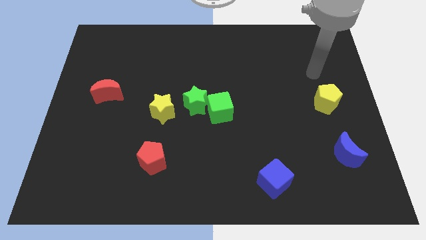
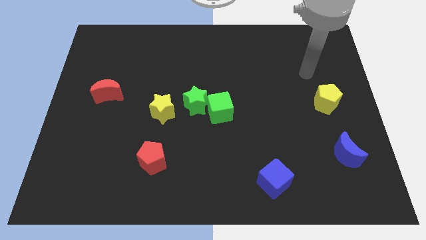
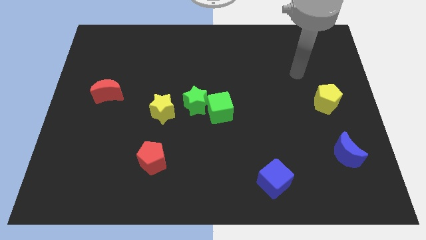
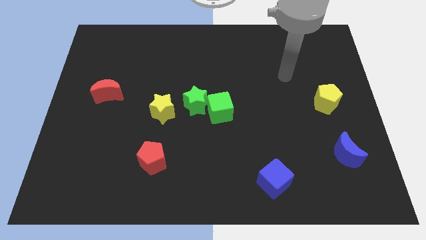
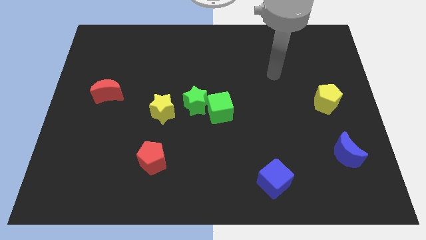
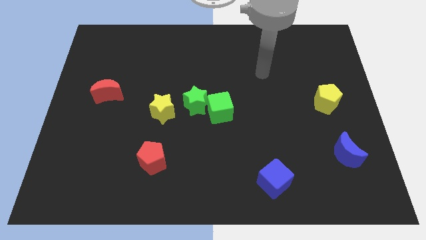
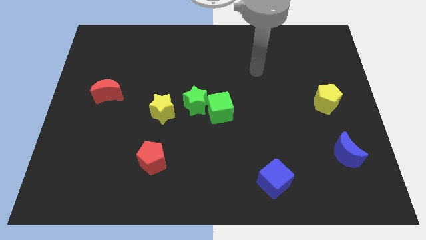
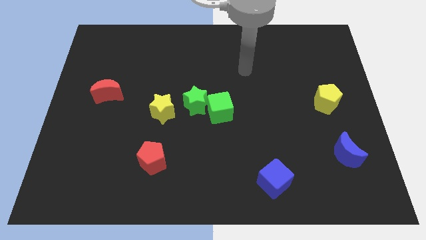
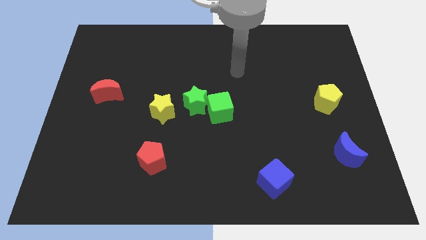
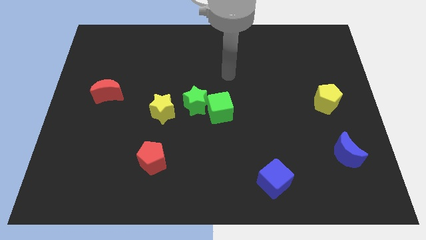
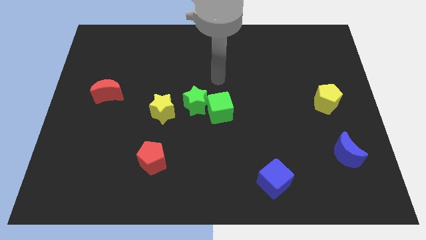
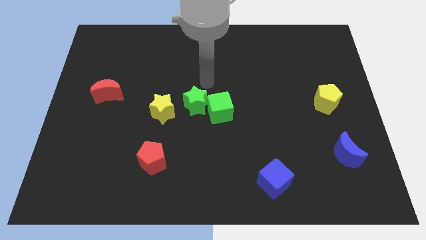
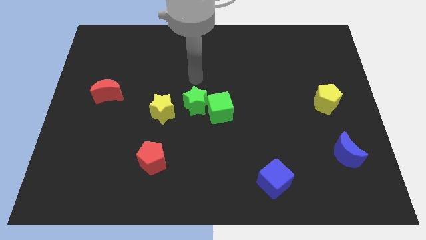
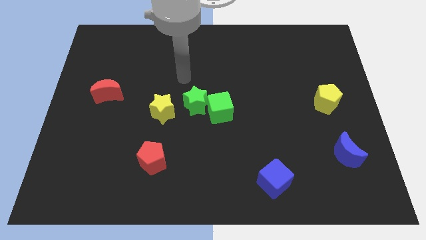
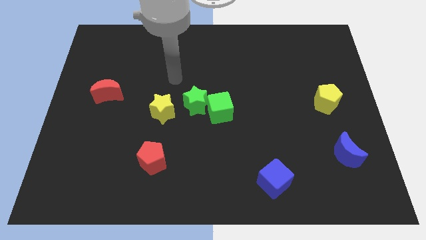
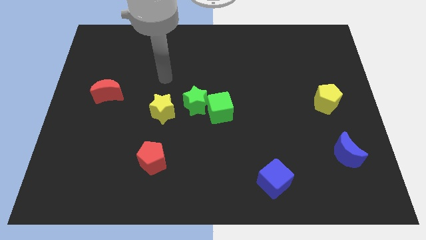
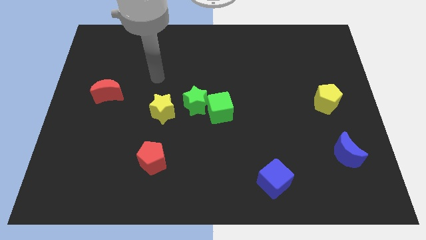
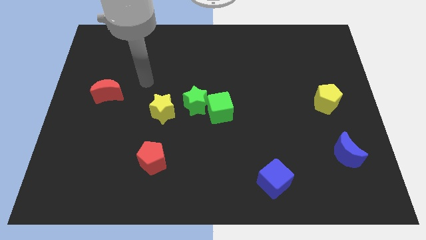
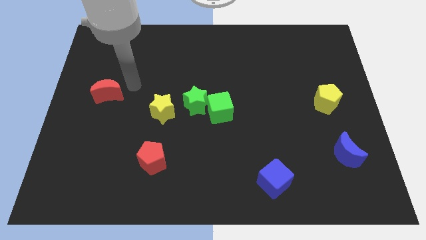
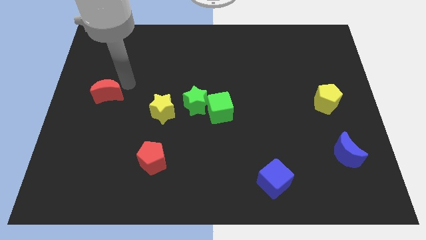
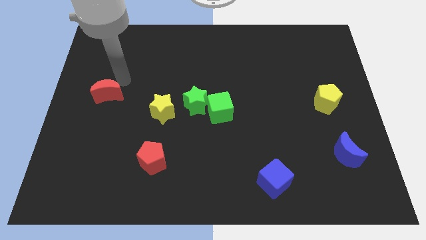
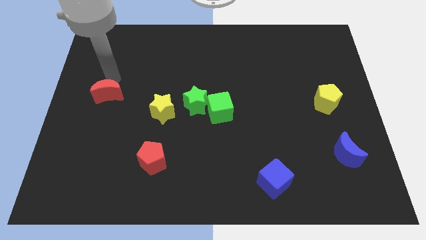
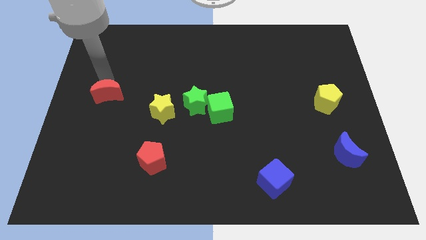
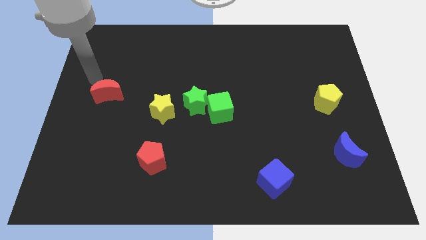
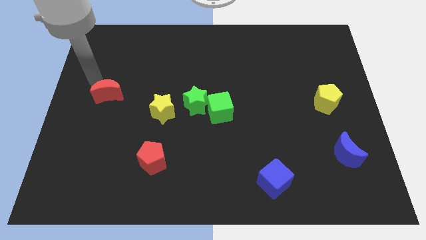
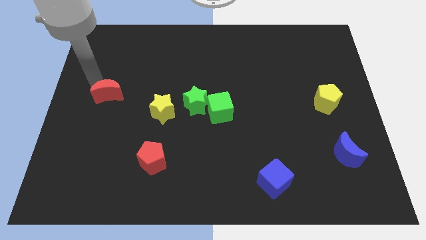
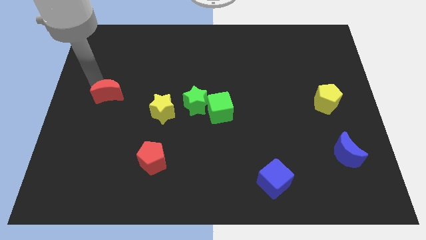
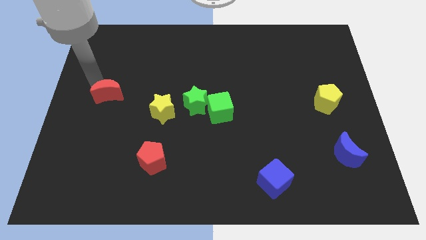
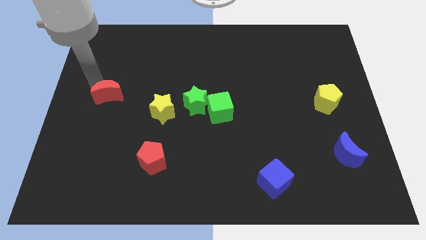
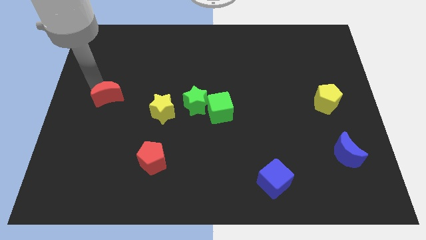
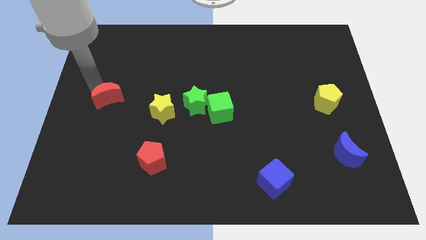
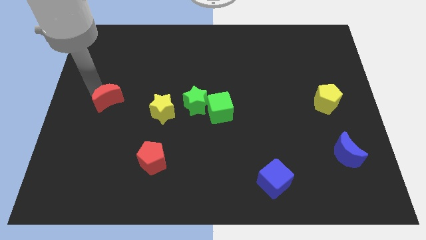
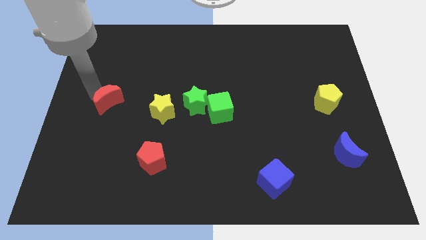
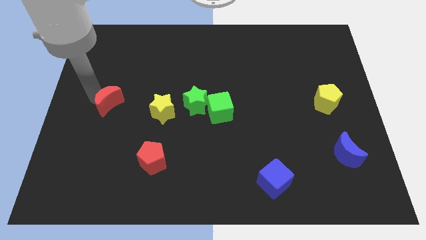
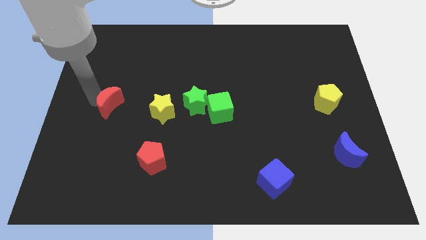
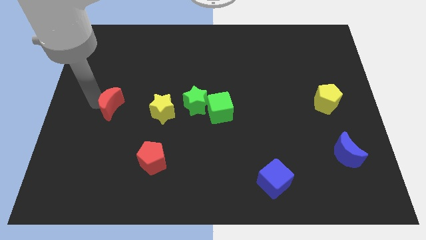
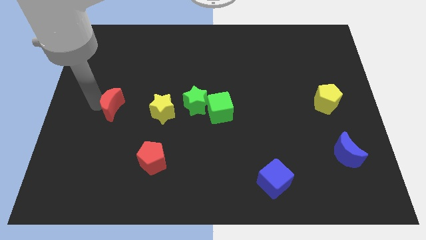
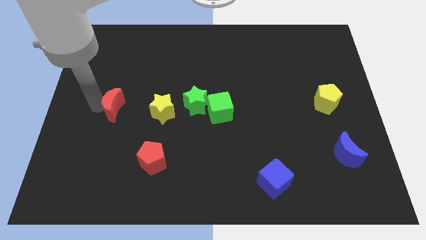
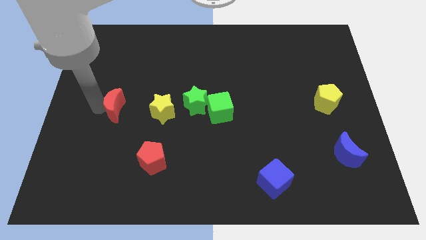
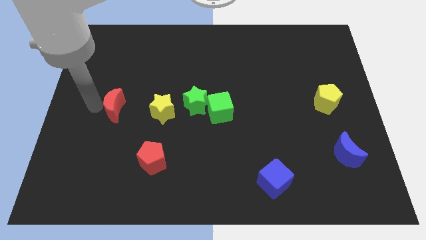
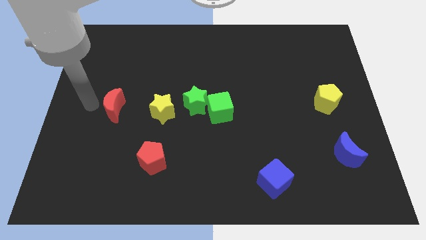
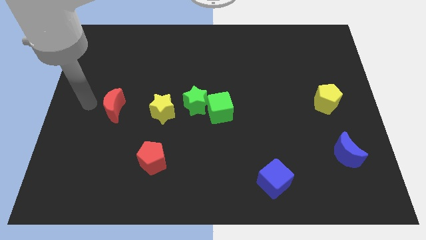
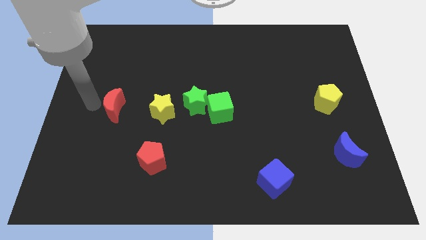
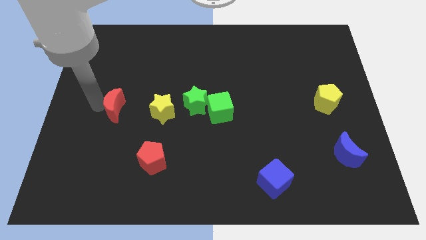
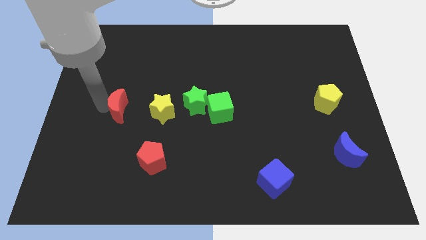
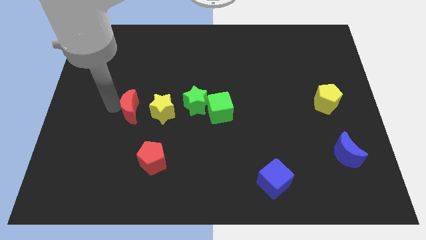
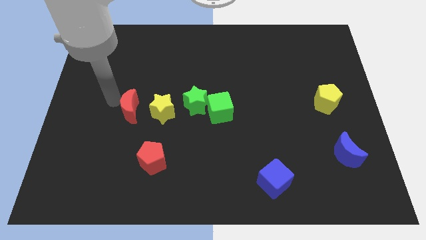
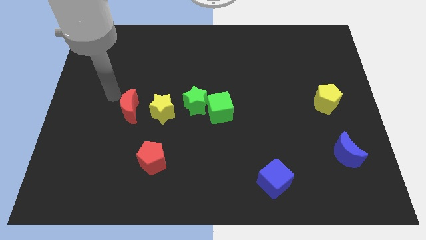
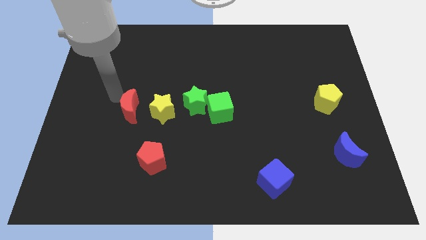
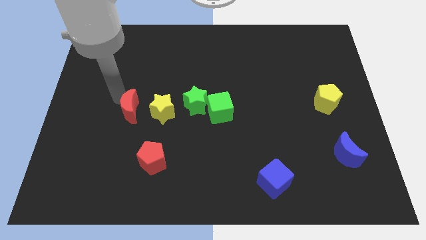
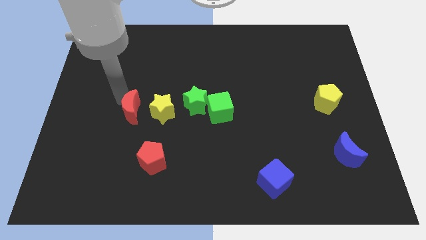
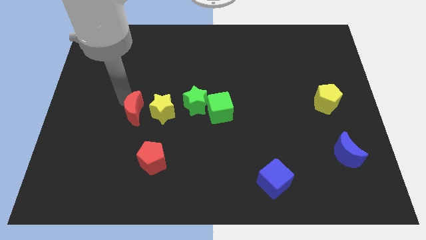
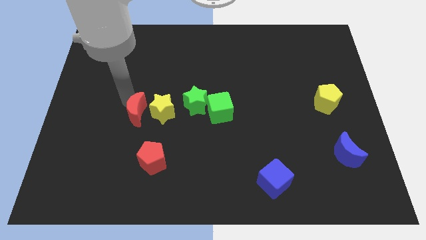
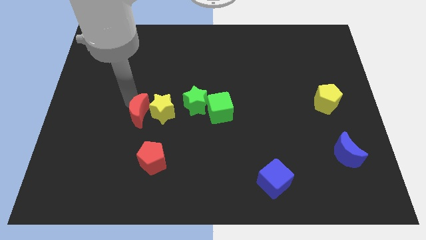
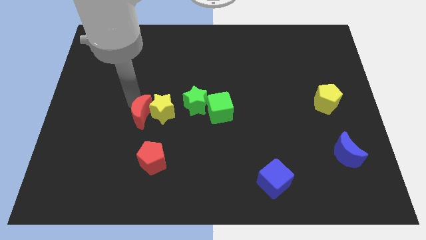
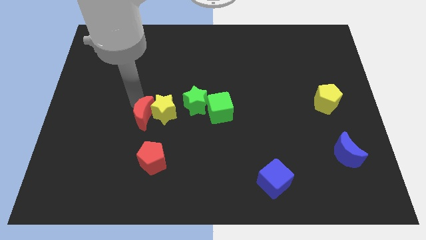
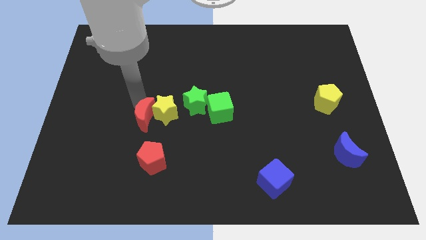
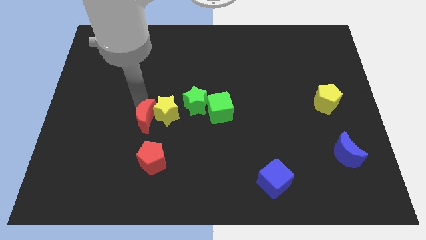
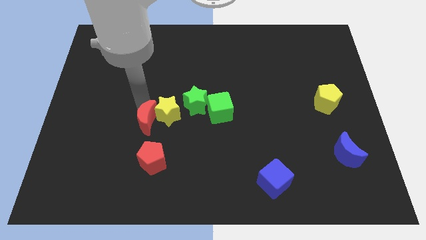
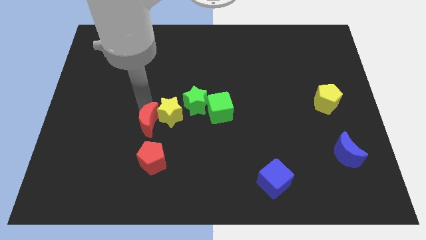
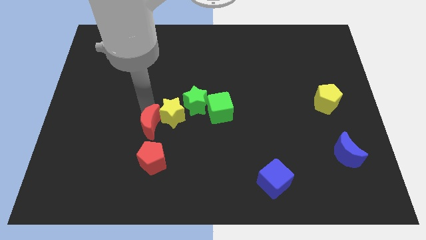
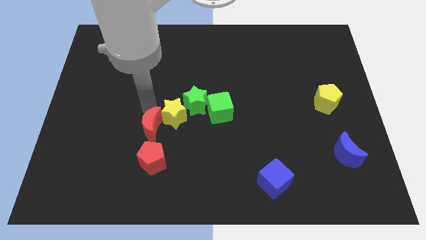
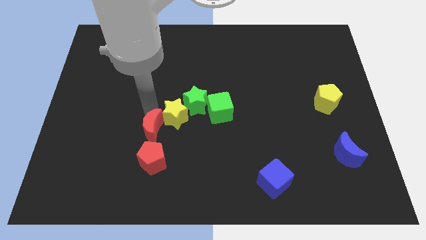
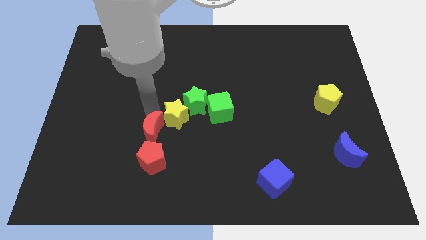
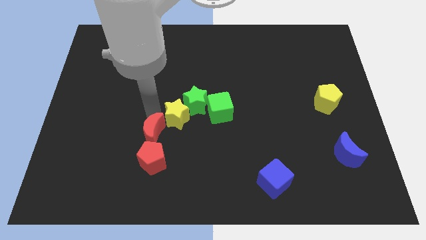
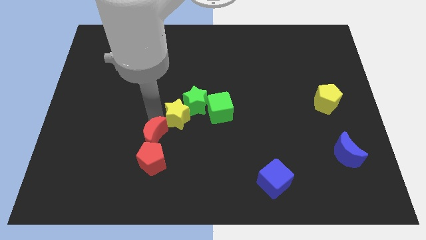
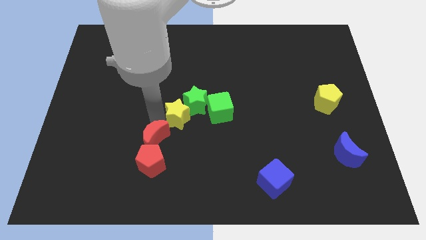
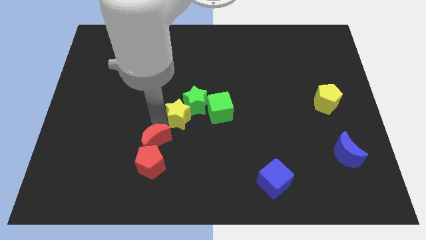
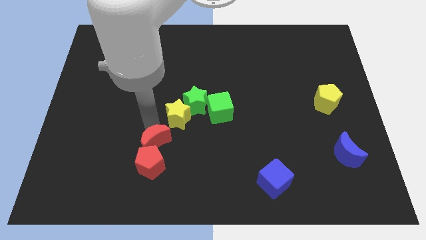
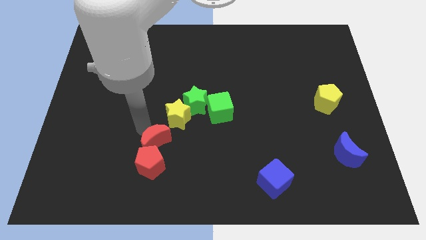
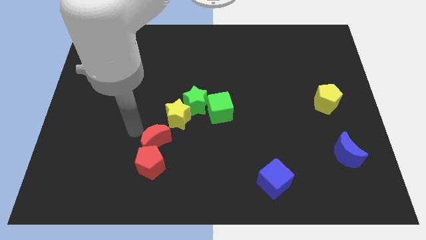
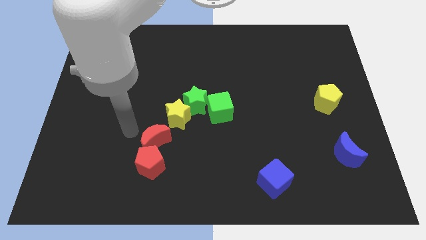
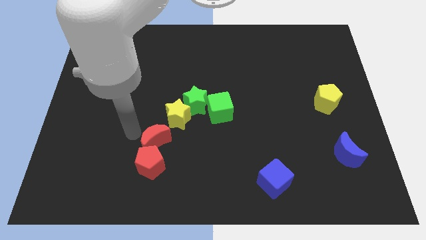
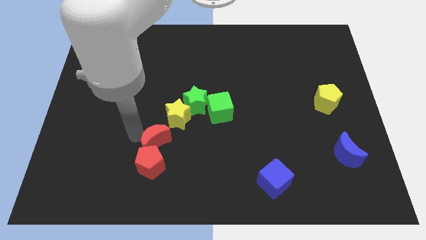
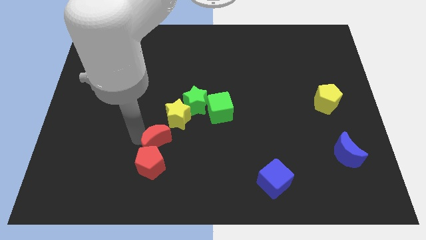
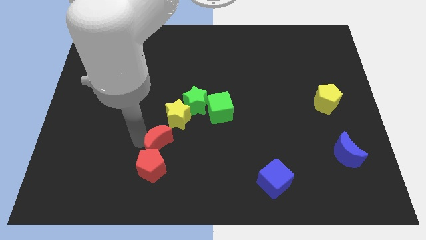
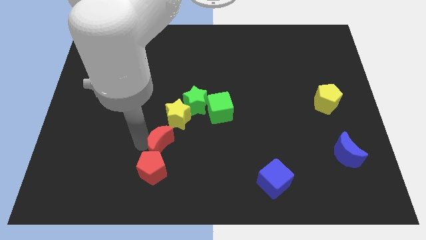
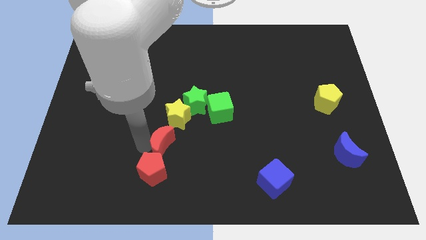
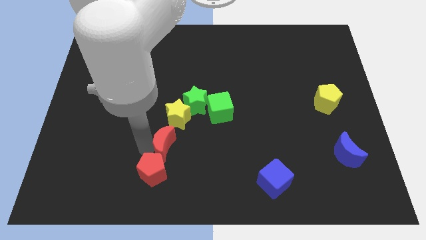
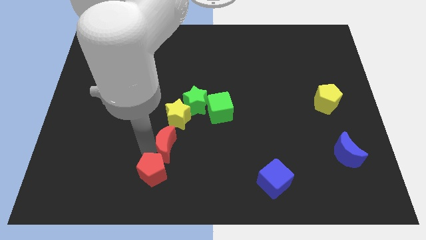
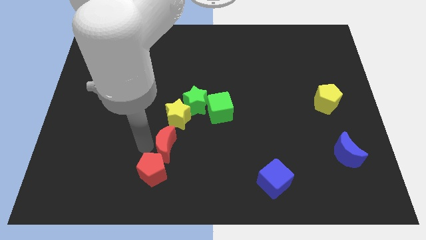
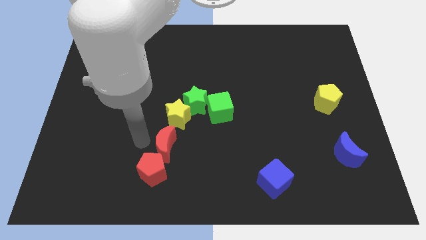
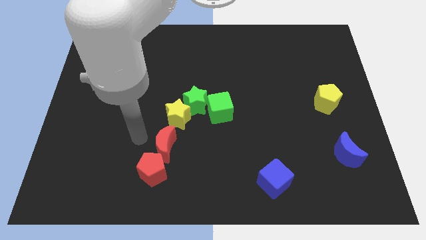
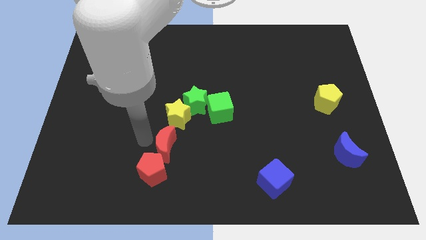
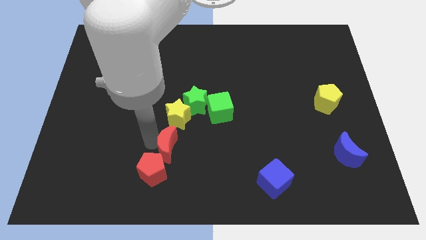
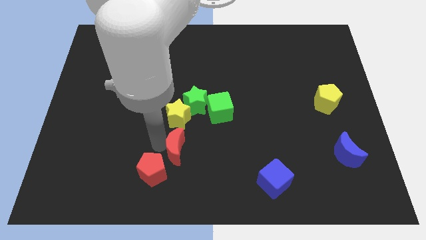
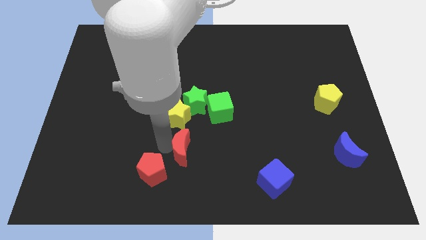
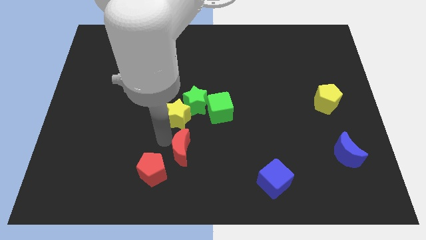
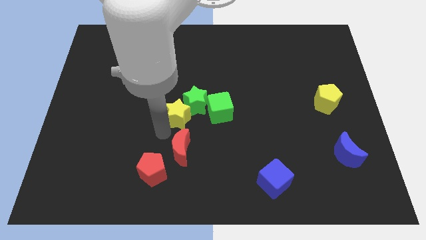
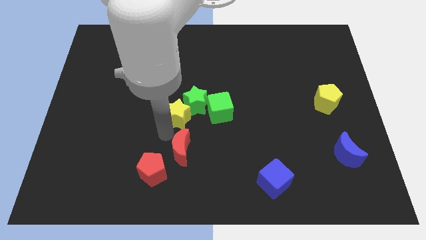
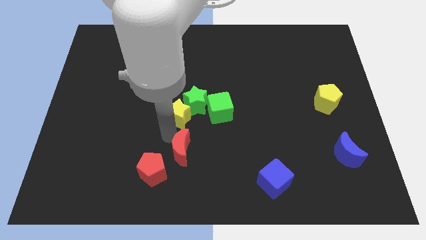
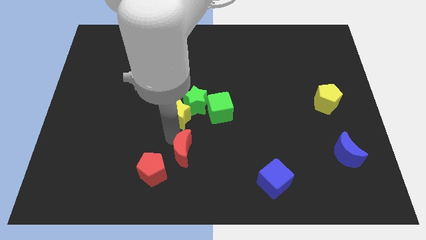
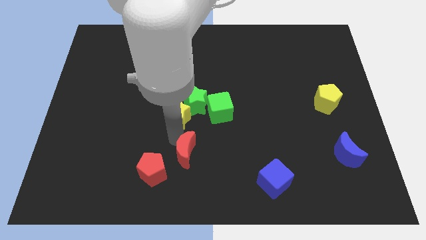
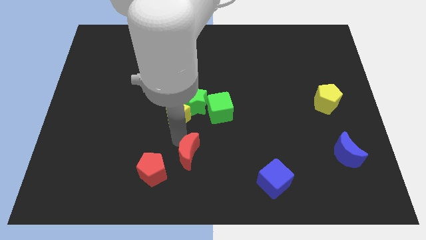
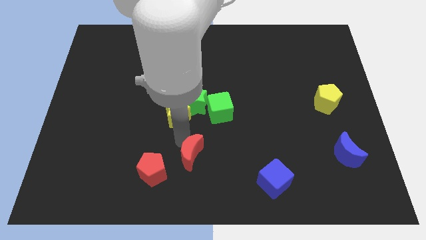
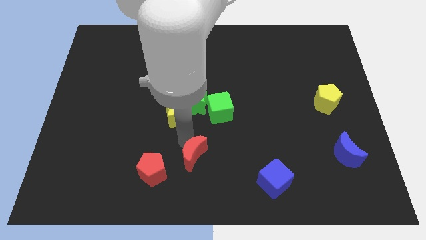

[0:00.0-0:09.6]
push the red moon to the bottom
